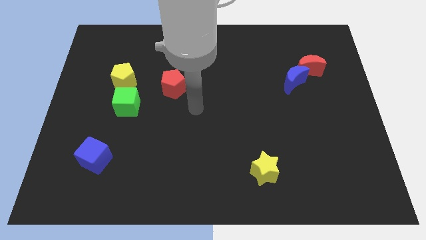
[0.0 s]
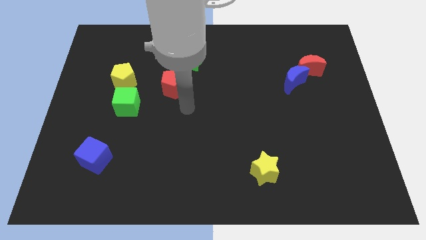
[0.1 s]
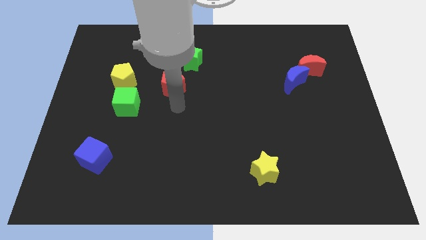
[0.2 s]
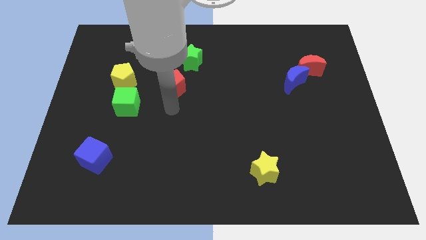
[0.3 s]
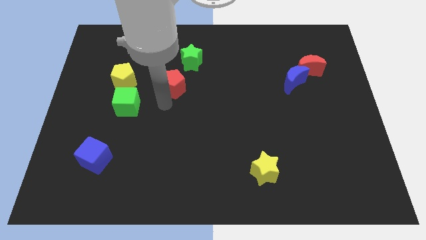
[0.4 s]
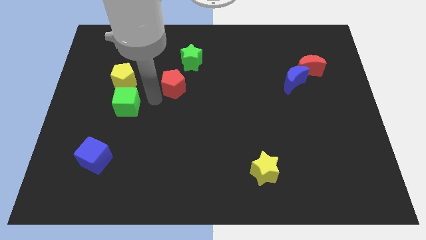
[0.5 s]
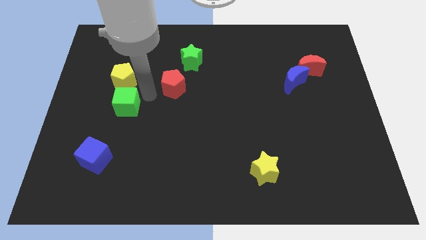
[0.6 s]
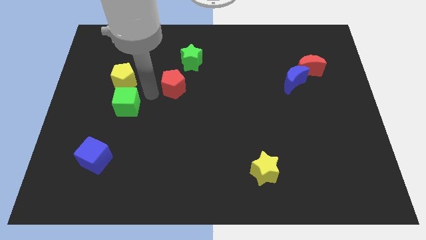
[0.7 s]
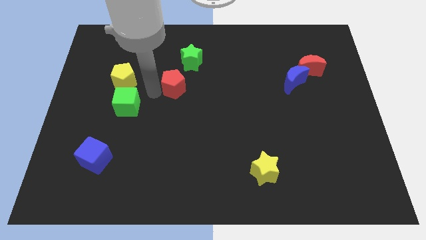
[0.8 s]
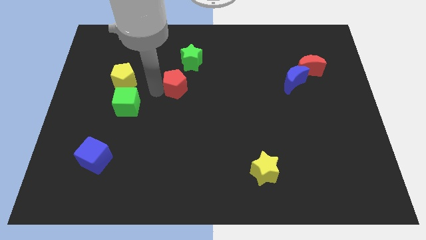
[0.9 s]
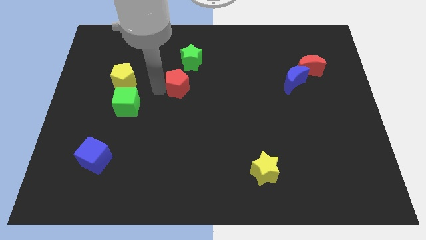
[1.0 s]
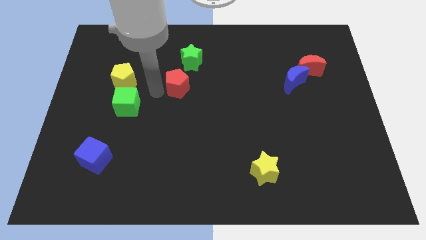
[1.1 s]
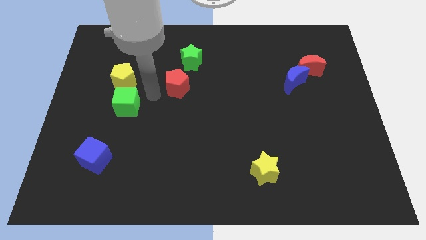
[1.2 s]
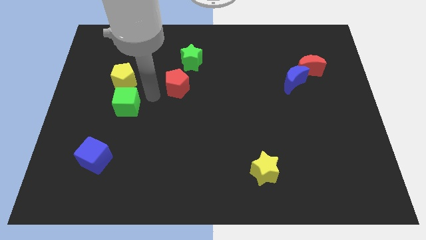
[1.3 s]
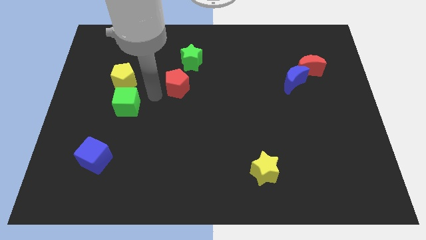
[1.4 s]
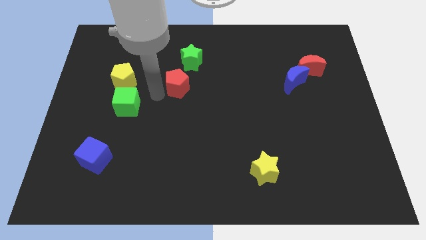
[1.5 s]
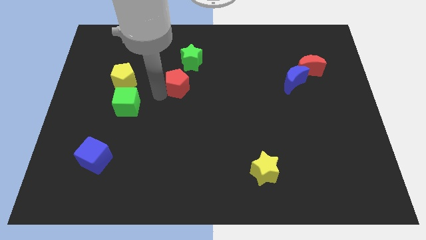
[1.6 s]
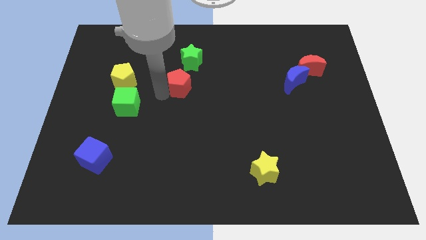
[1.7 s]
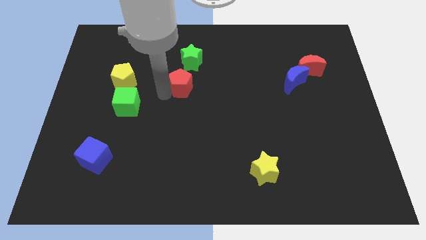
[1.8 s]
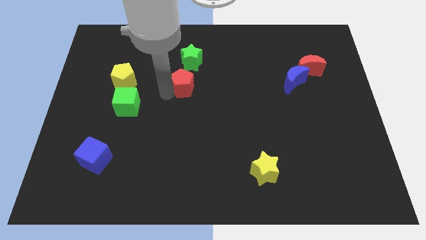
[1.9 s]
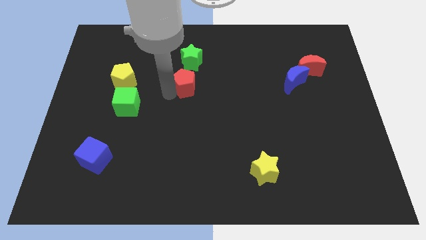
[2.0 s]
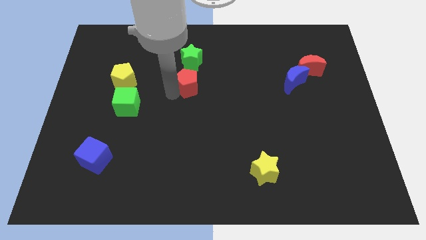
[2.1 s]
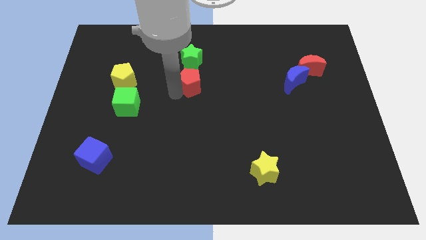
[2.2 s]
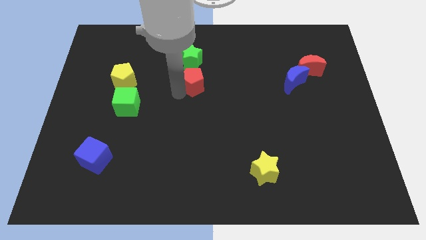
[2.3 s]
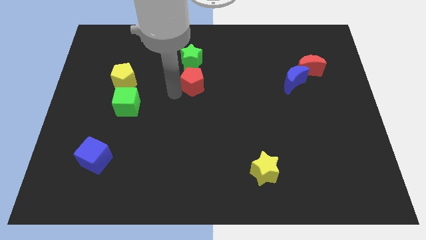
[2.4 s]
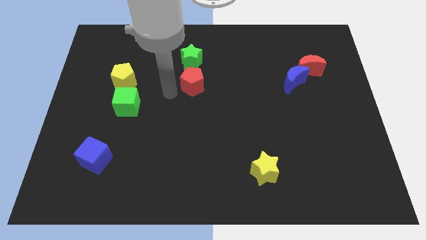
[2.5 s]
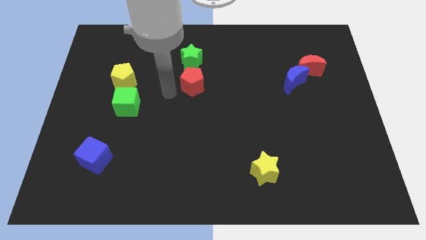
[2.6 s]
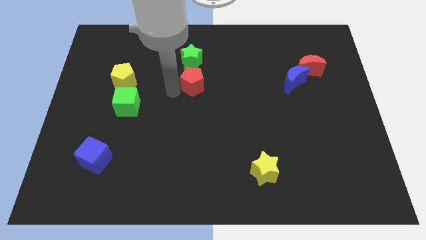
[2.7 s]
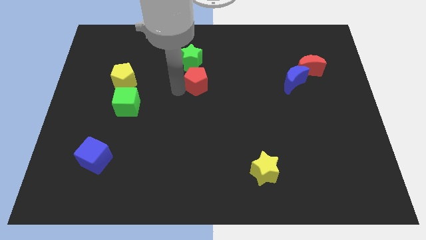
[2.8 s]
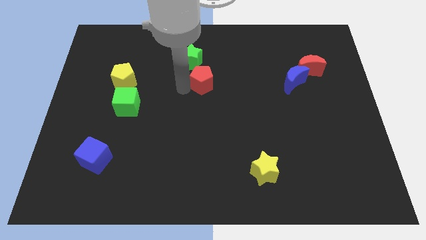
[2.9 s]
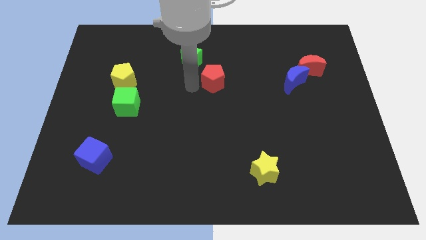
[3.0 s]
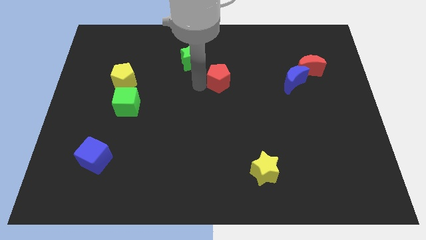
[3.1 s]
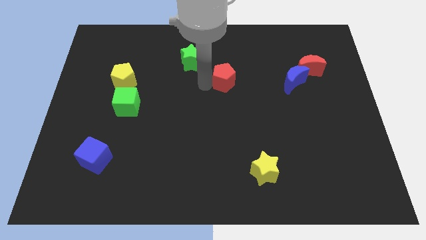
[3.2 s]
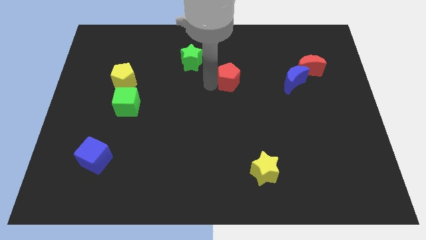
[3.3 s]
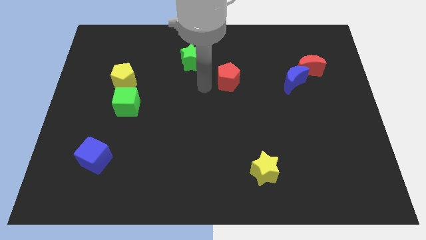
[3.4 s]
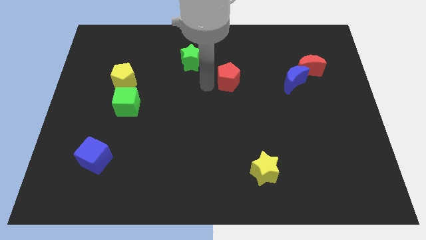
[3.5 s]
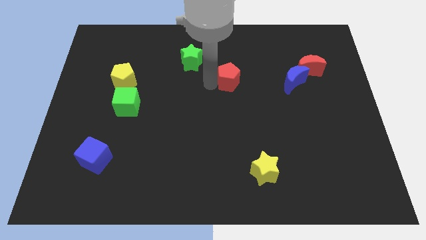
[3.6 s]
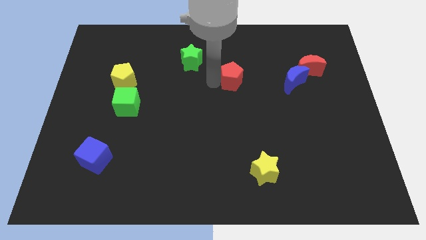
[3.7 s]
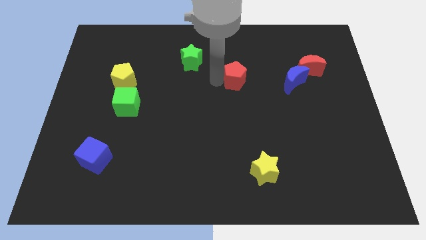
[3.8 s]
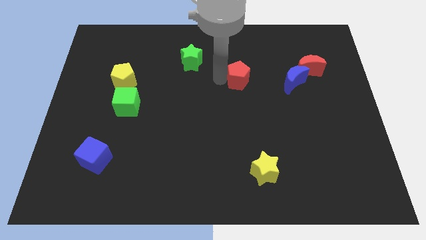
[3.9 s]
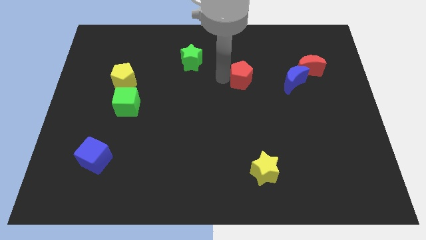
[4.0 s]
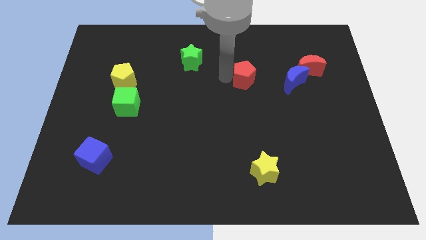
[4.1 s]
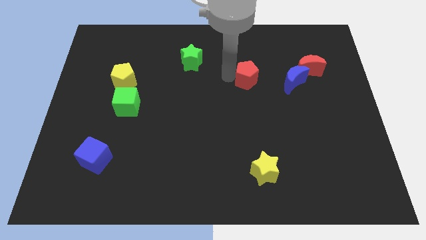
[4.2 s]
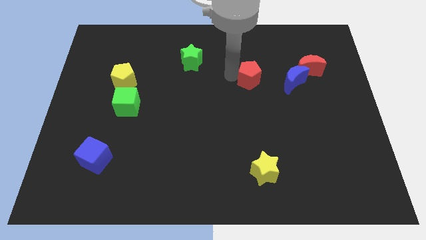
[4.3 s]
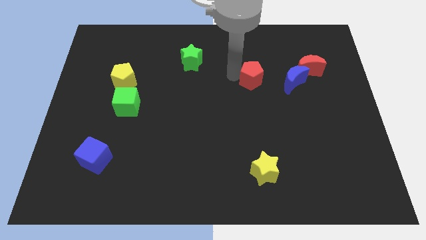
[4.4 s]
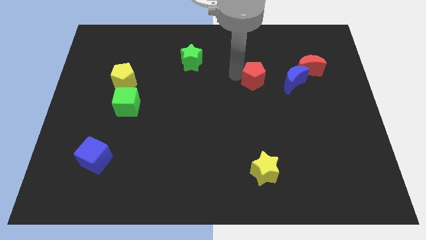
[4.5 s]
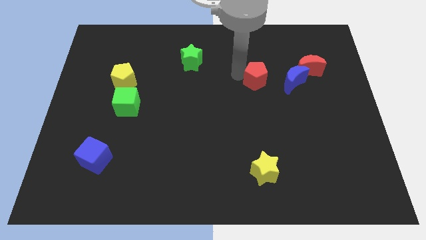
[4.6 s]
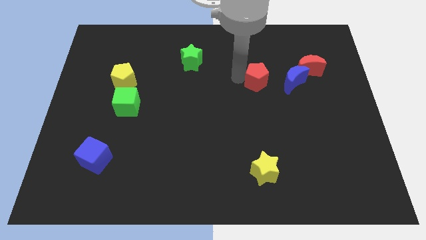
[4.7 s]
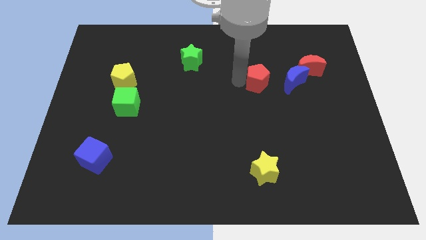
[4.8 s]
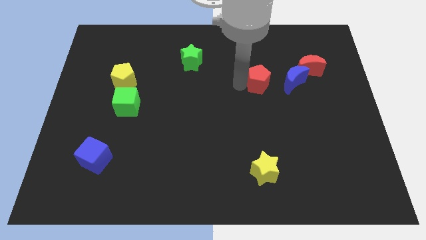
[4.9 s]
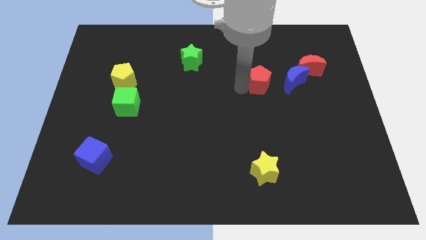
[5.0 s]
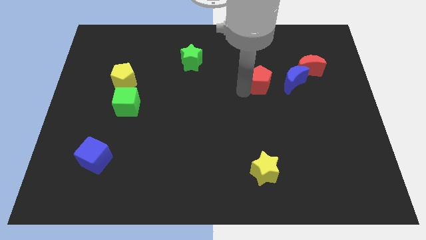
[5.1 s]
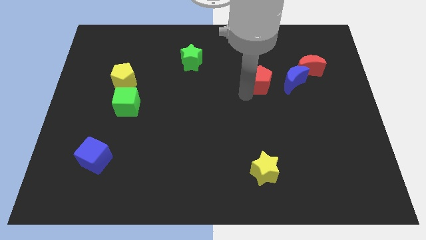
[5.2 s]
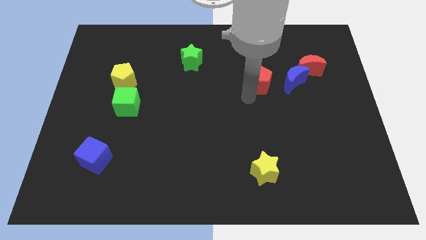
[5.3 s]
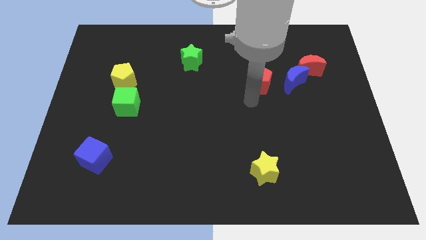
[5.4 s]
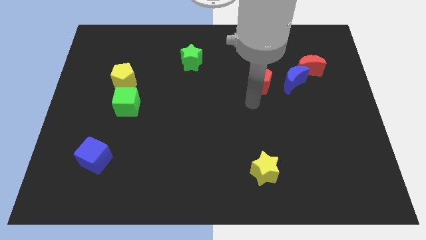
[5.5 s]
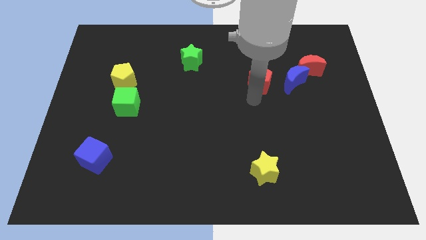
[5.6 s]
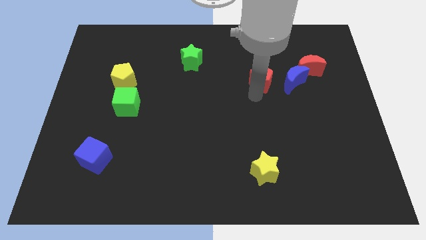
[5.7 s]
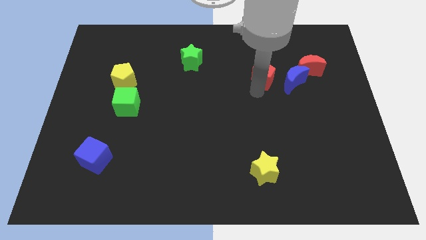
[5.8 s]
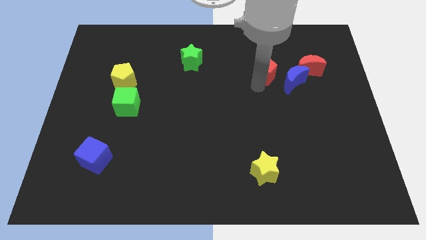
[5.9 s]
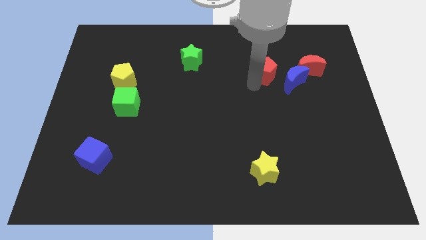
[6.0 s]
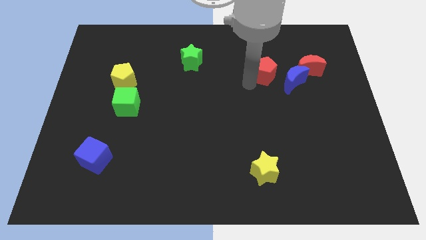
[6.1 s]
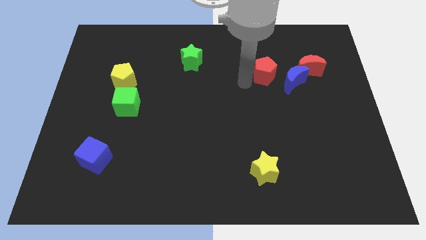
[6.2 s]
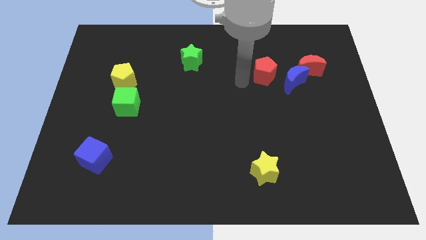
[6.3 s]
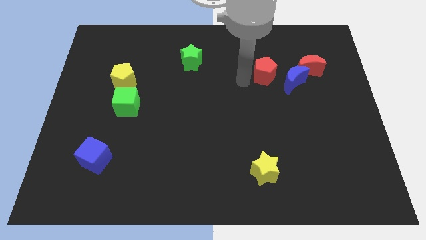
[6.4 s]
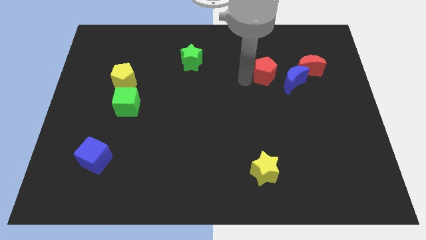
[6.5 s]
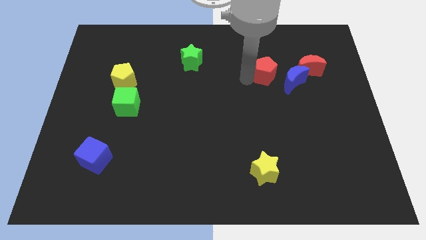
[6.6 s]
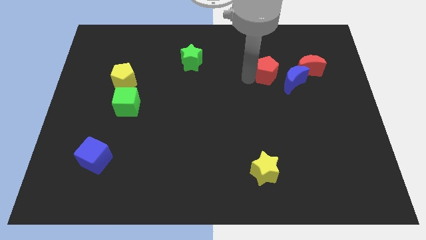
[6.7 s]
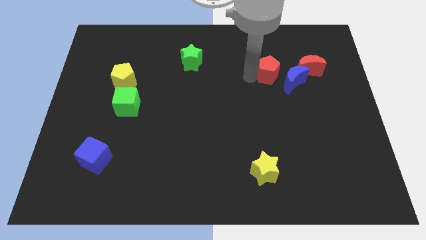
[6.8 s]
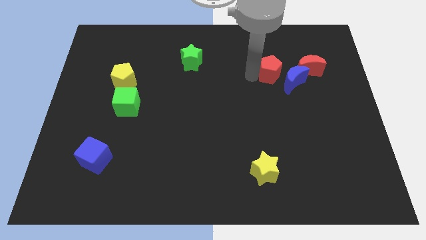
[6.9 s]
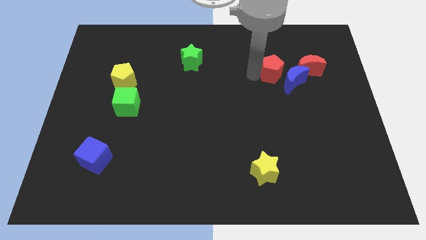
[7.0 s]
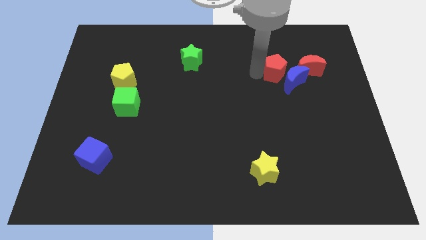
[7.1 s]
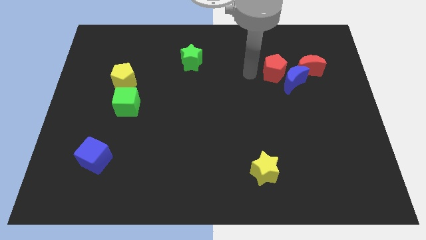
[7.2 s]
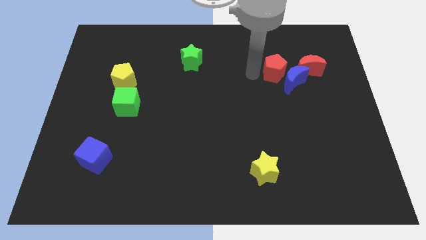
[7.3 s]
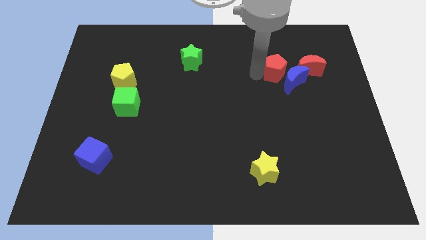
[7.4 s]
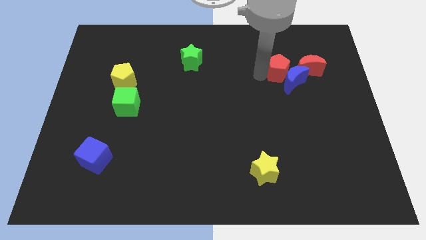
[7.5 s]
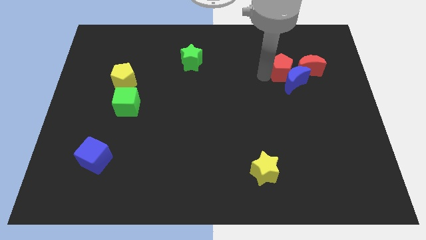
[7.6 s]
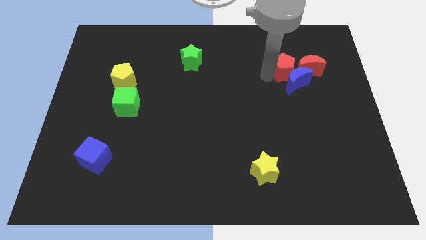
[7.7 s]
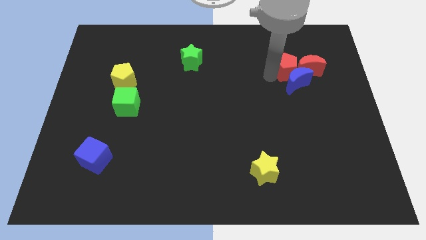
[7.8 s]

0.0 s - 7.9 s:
push the red pentagon next to the red moon
